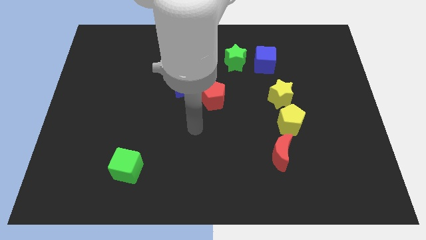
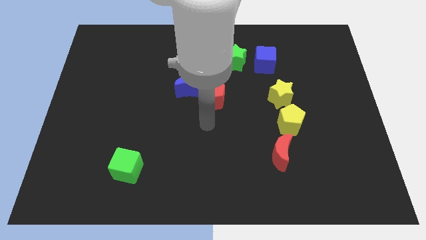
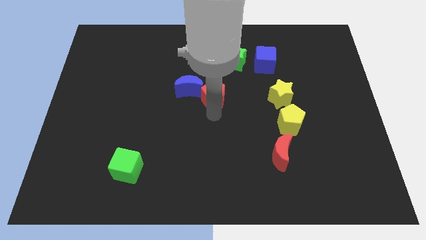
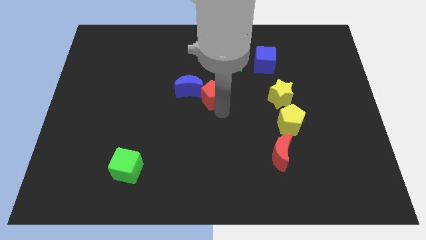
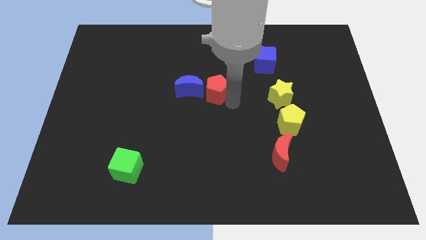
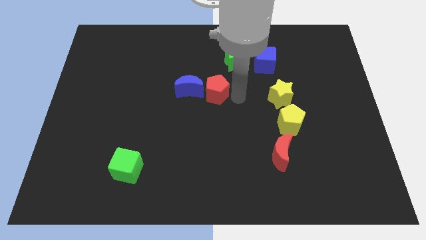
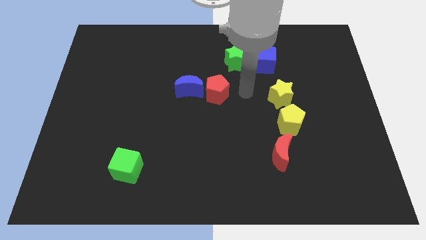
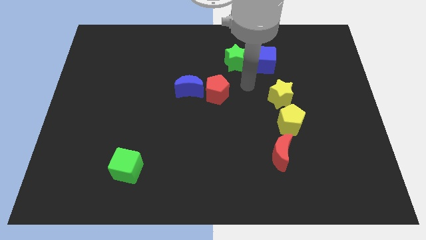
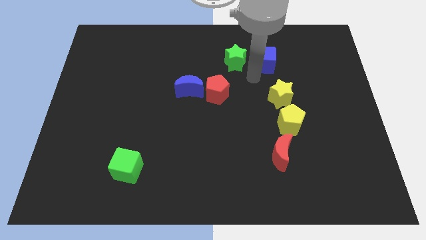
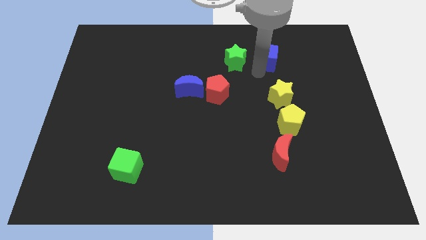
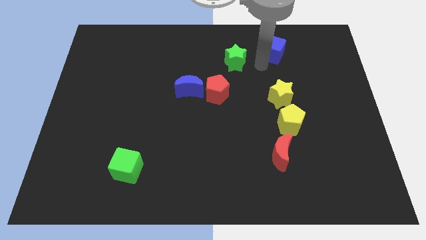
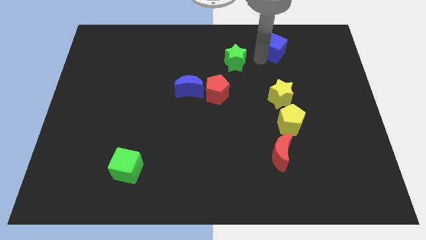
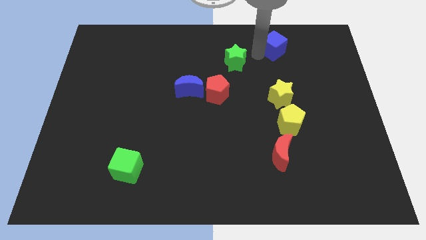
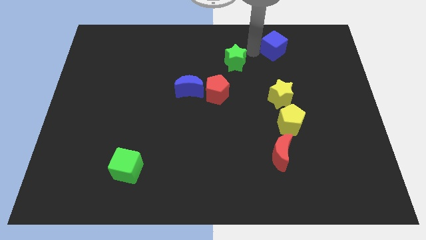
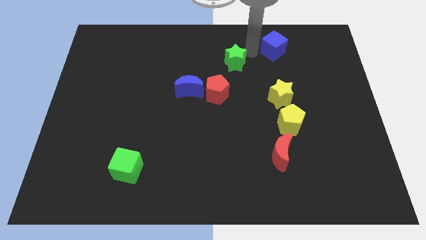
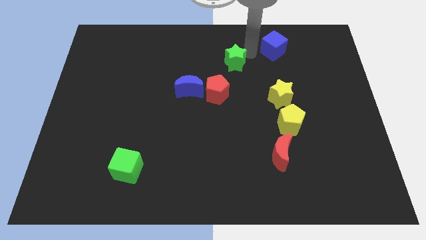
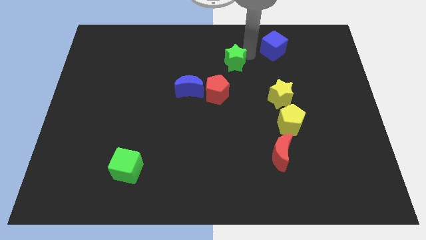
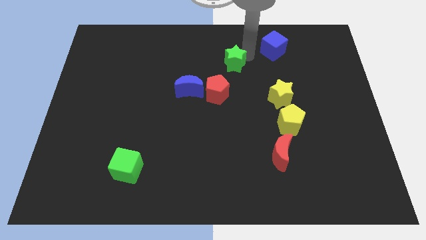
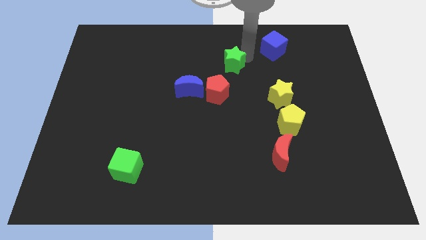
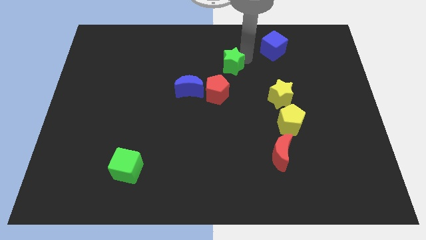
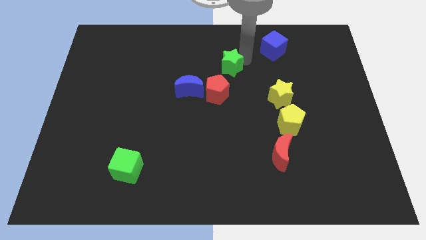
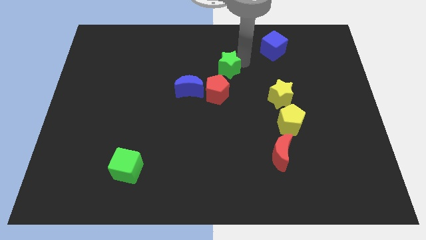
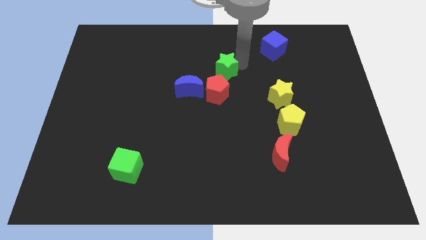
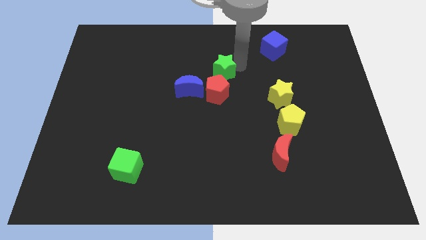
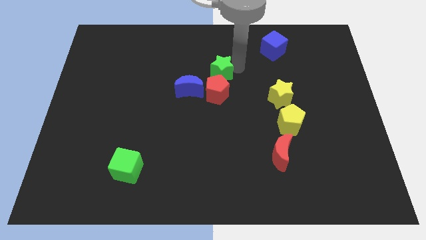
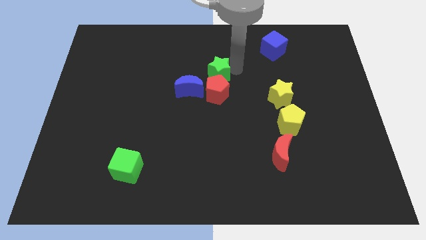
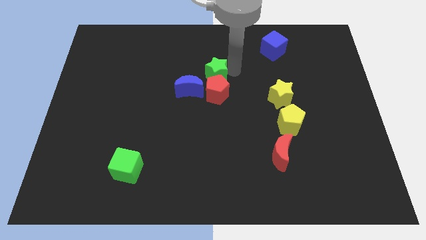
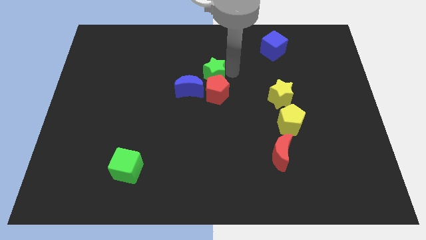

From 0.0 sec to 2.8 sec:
push the green star down and left a bit

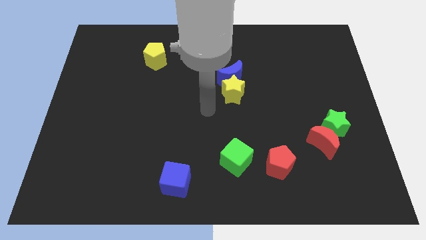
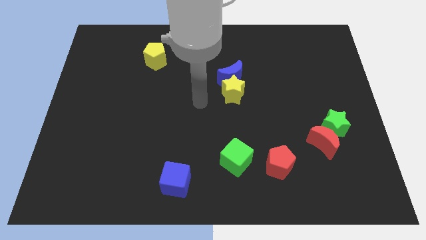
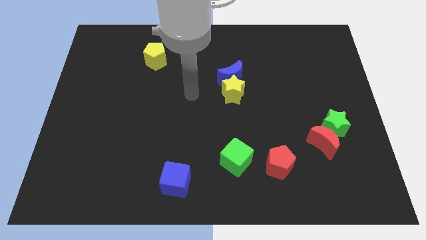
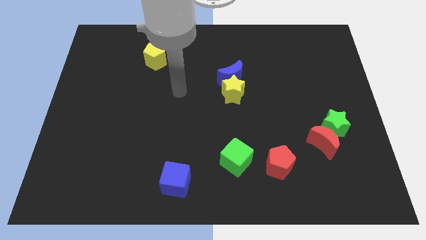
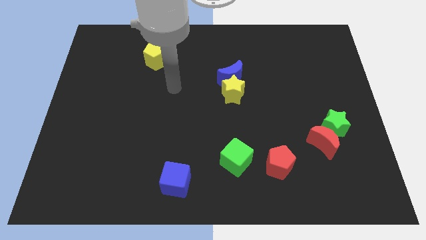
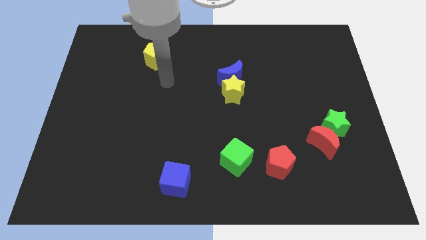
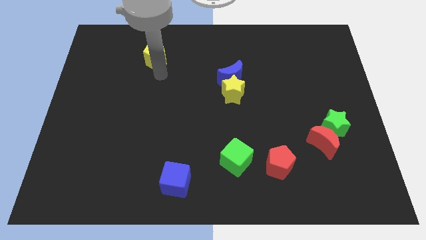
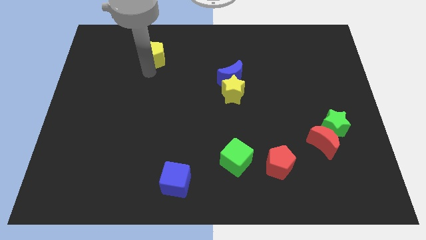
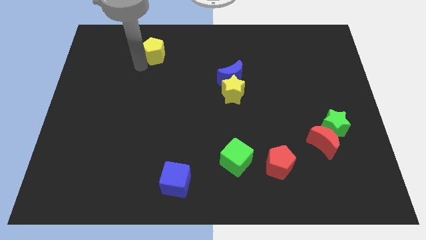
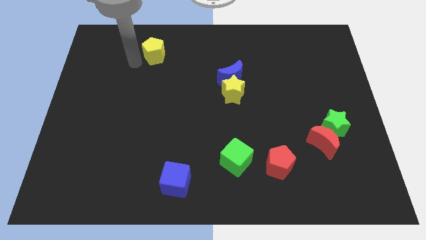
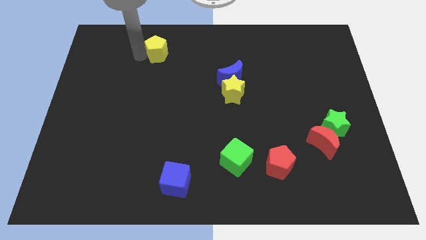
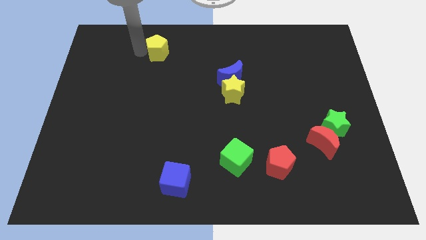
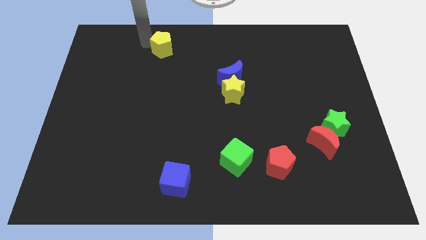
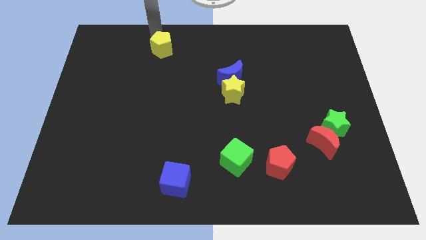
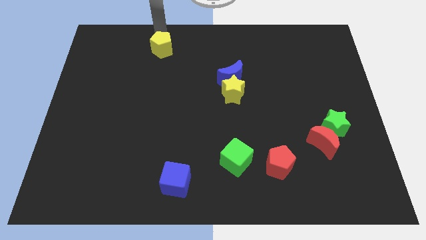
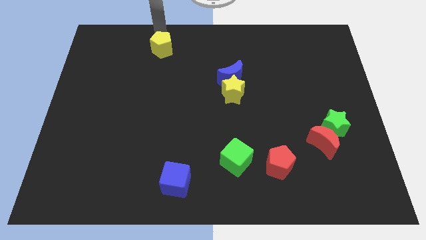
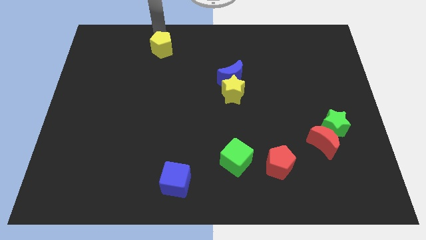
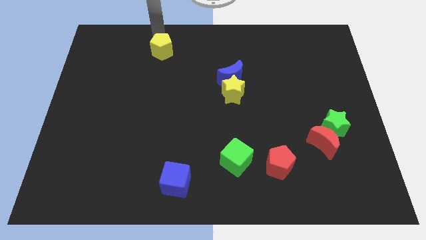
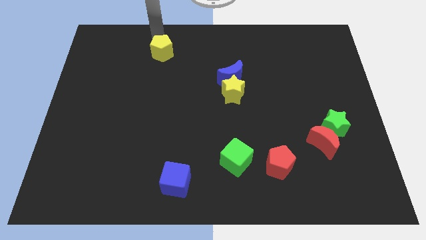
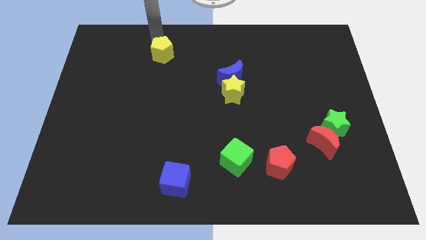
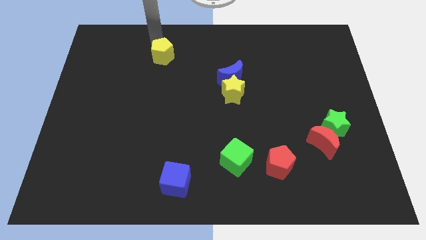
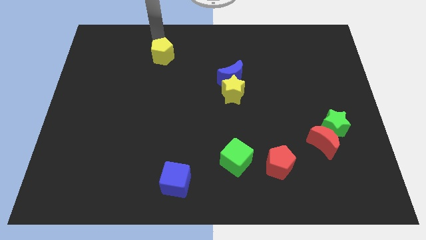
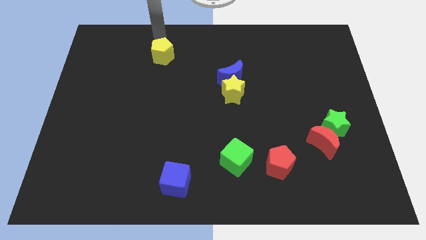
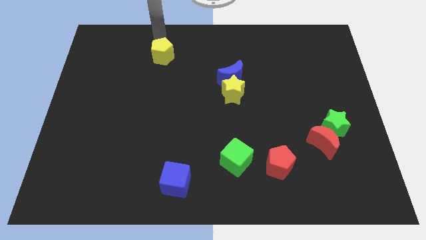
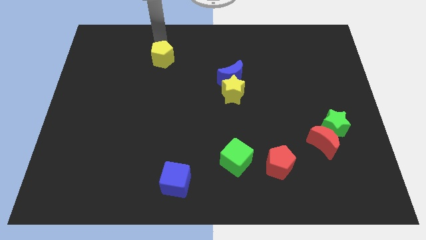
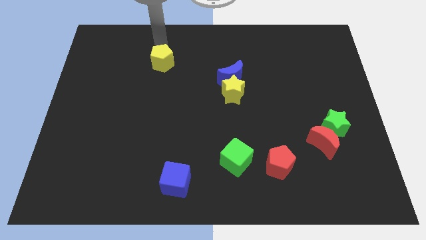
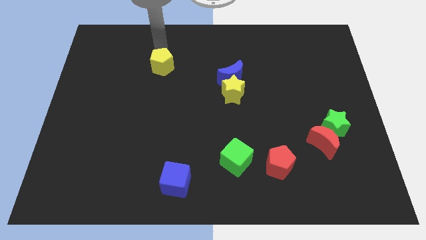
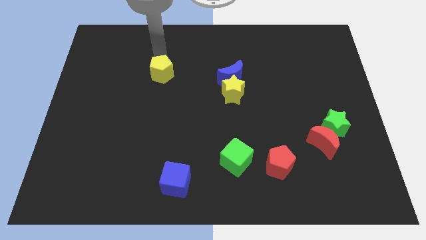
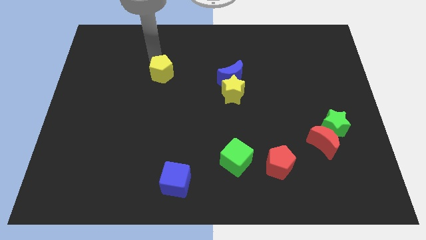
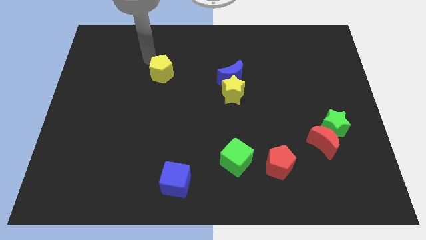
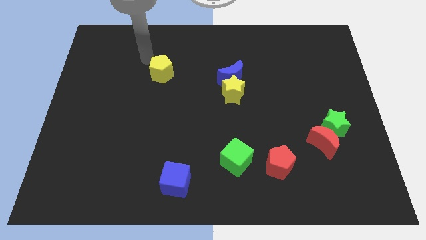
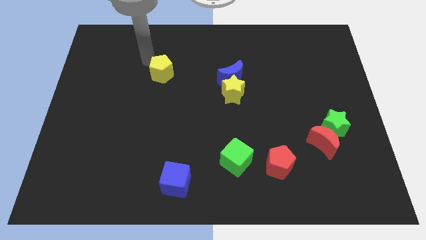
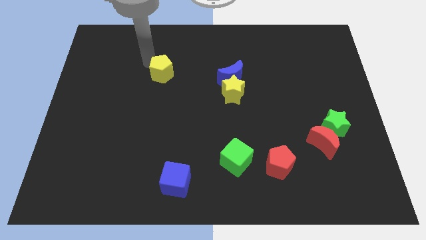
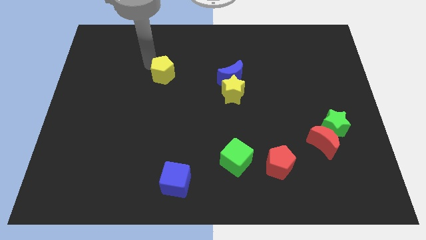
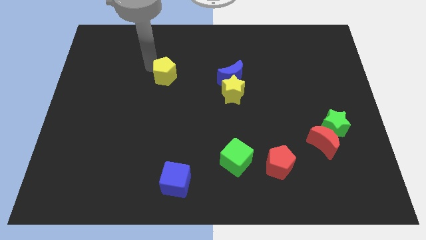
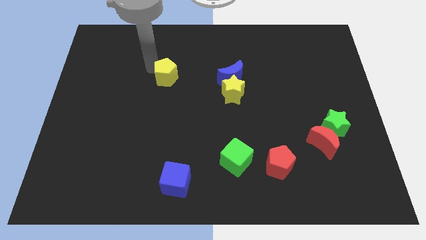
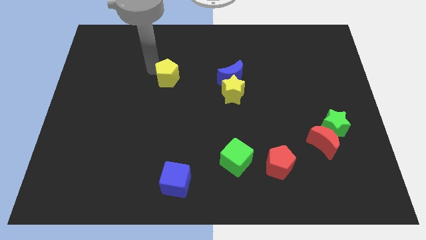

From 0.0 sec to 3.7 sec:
slightly push the yellow pentagon downwards and right diagonally

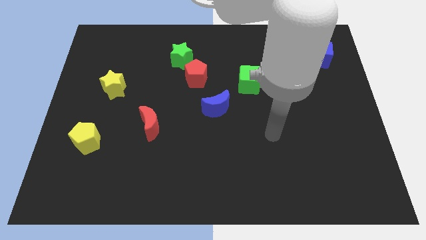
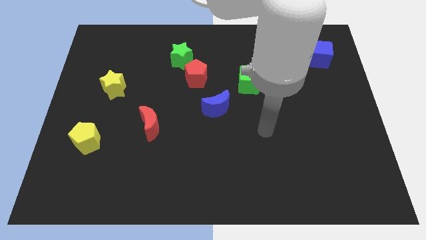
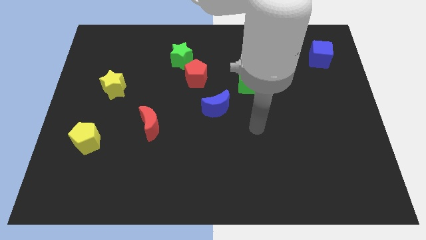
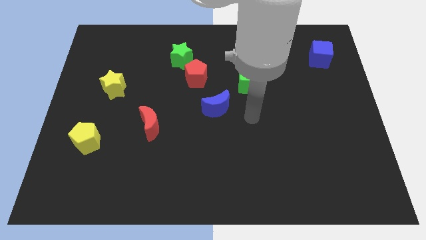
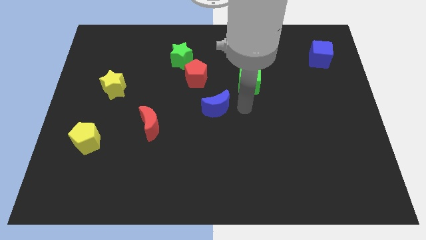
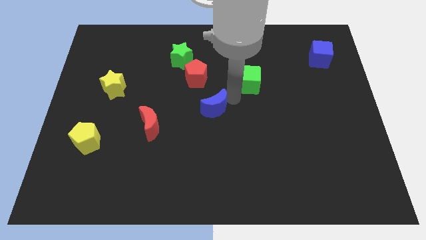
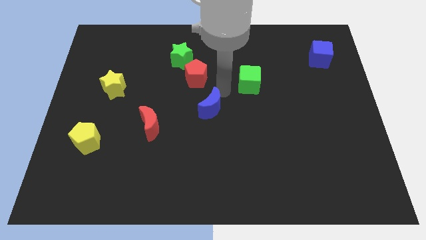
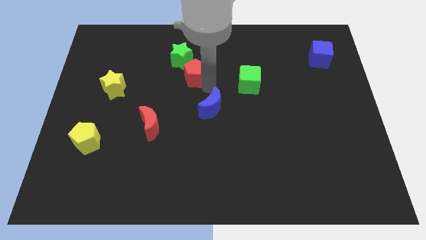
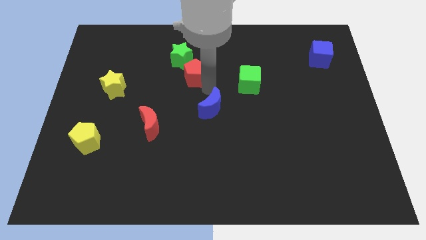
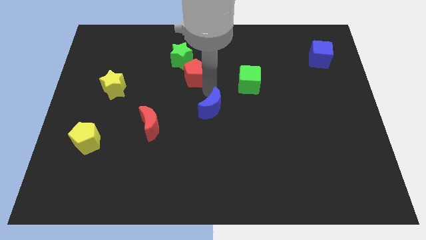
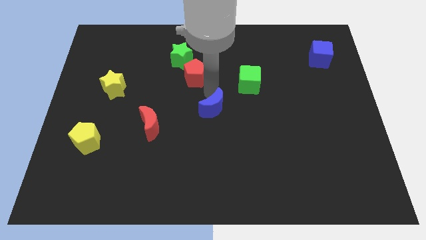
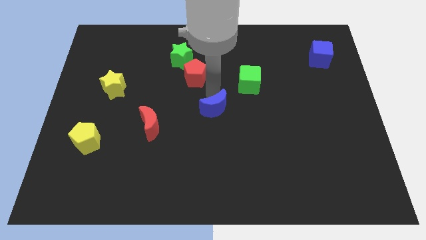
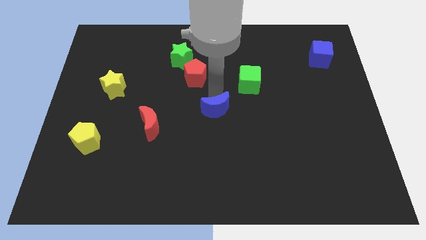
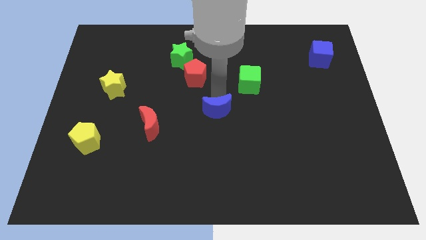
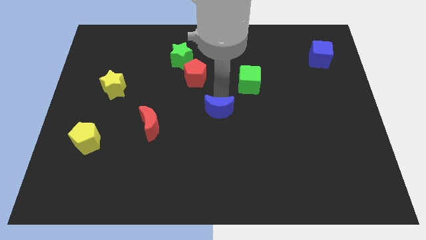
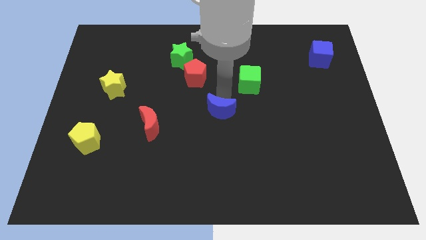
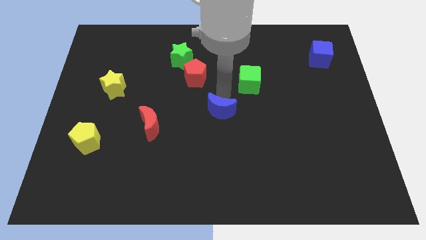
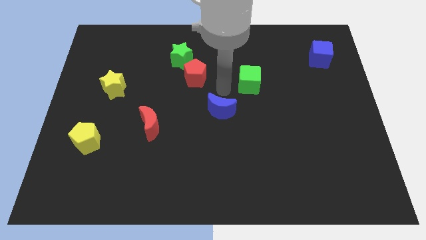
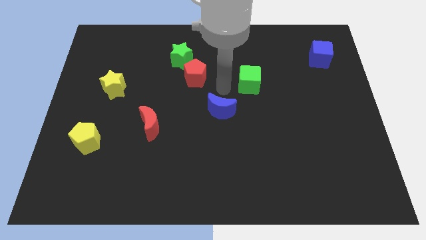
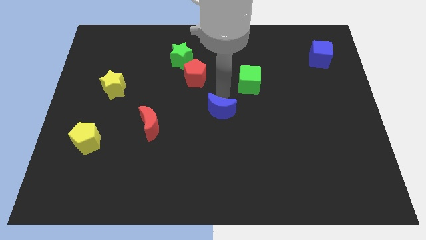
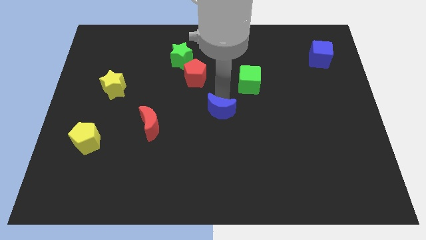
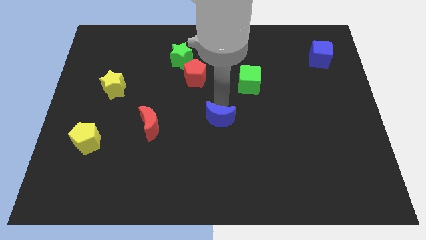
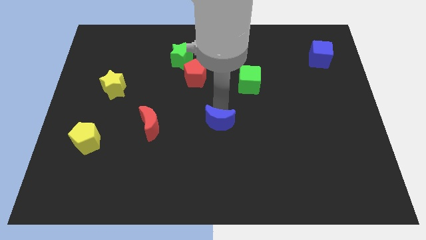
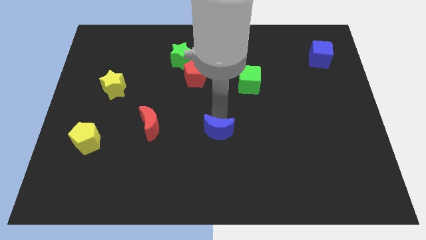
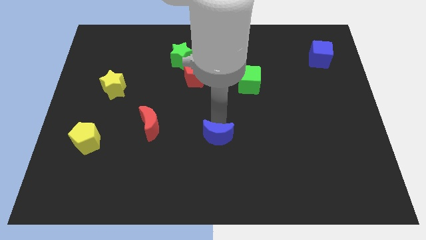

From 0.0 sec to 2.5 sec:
push the blue moon a little bit downwards
